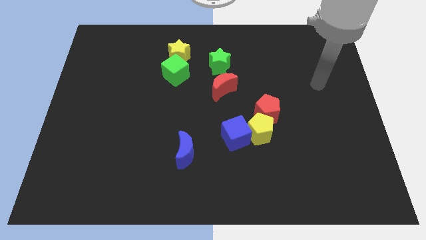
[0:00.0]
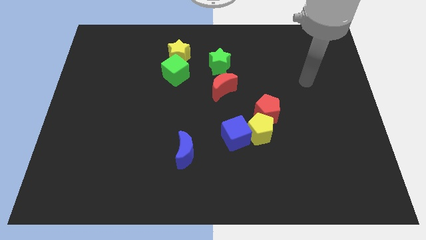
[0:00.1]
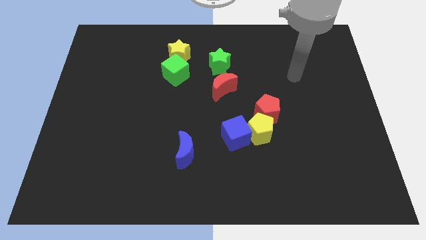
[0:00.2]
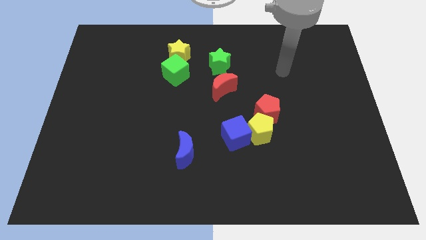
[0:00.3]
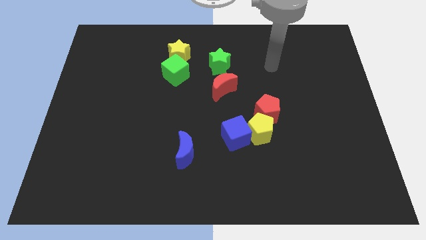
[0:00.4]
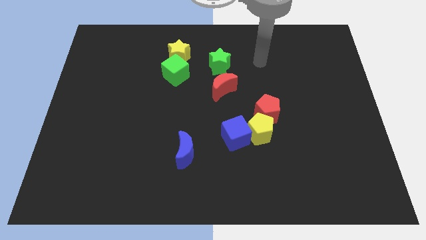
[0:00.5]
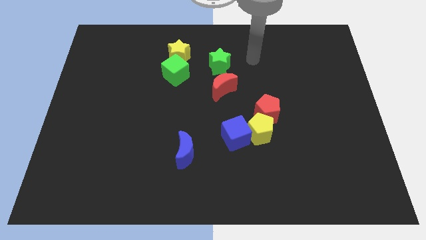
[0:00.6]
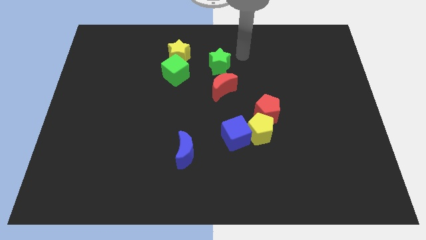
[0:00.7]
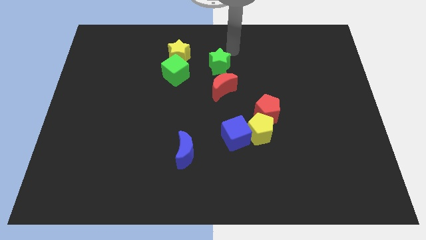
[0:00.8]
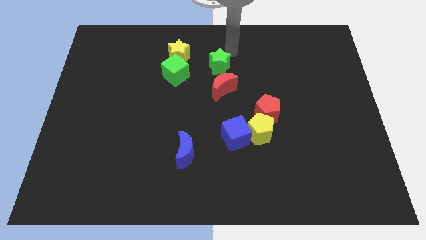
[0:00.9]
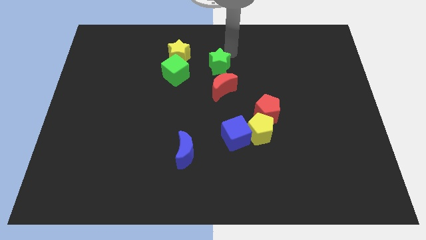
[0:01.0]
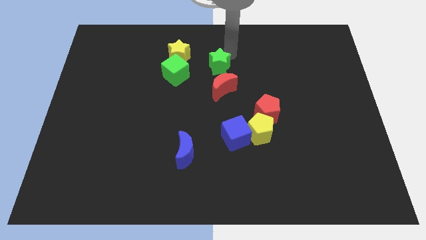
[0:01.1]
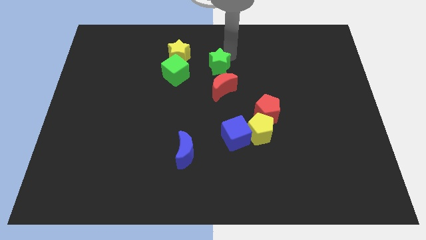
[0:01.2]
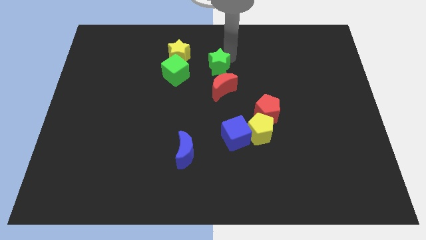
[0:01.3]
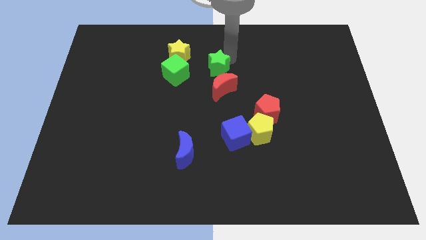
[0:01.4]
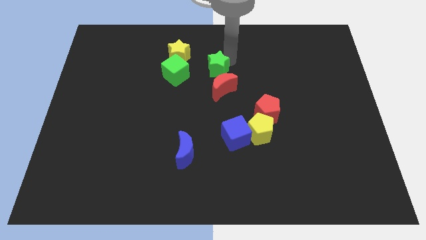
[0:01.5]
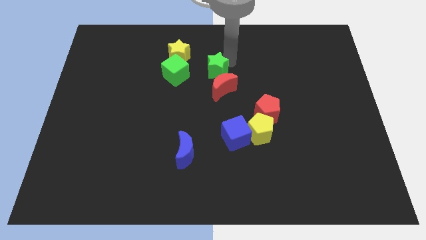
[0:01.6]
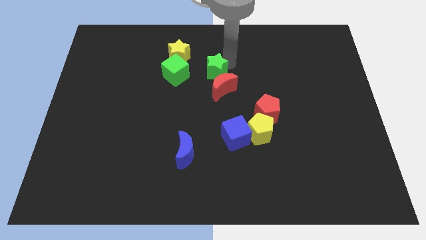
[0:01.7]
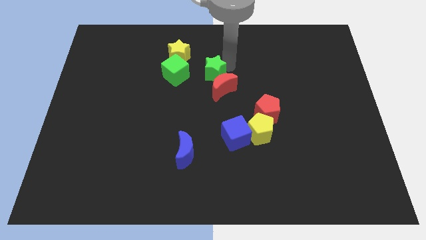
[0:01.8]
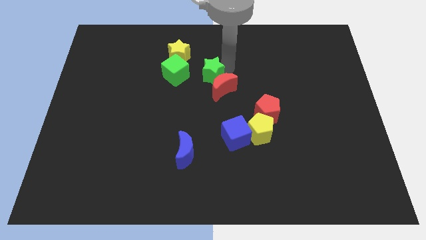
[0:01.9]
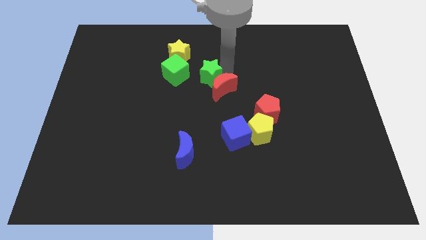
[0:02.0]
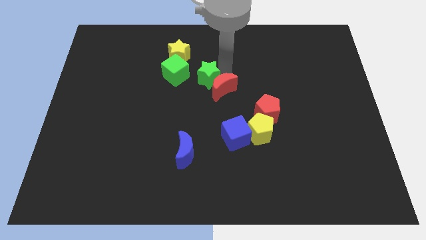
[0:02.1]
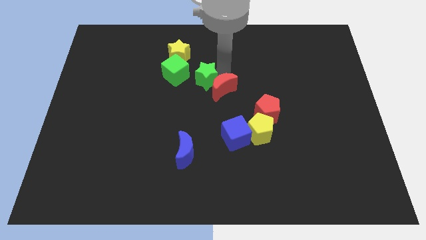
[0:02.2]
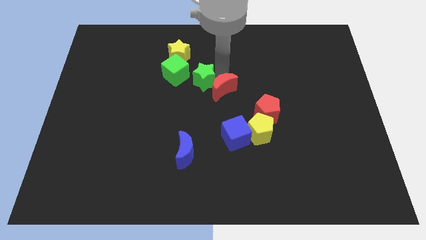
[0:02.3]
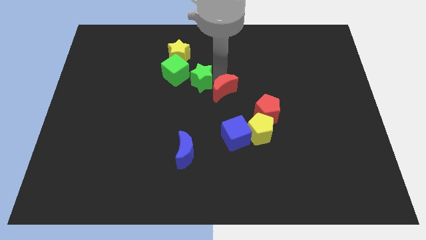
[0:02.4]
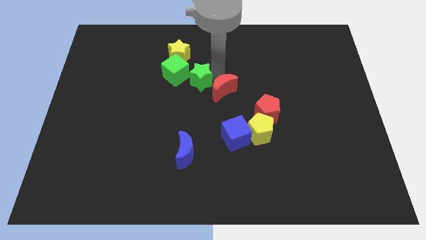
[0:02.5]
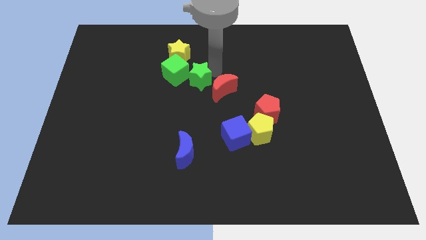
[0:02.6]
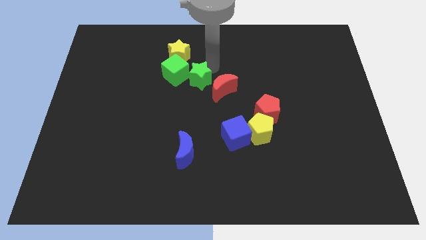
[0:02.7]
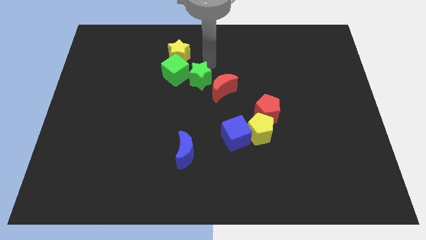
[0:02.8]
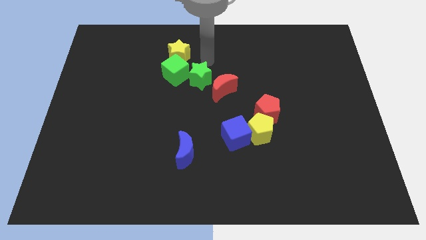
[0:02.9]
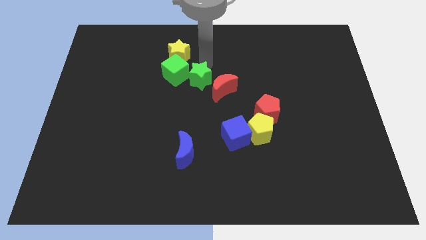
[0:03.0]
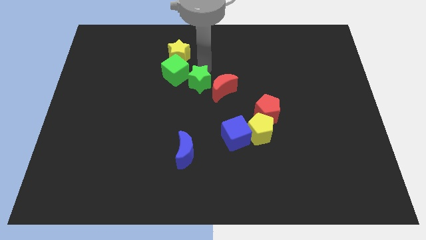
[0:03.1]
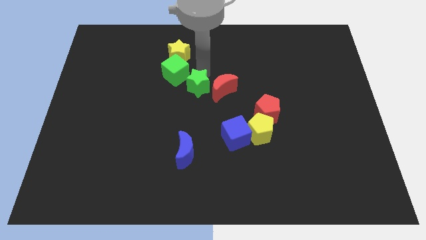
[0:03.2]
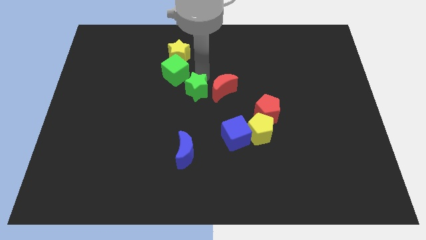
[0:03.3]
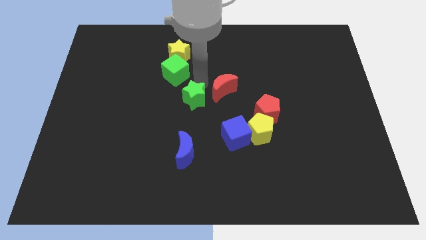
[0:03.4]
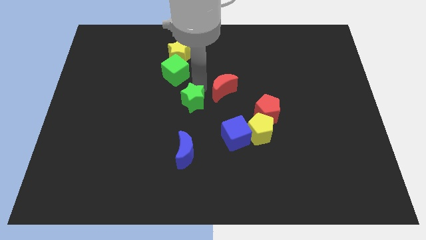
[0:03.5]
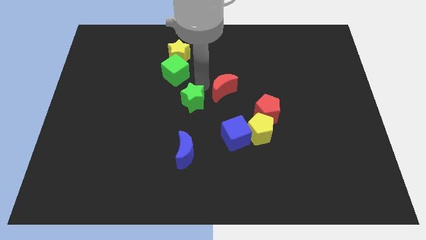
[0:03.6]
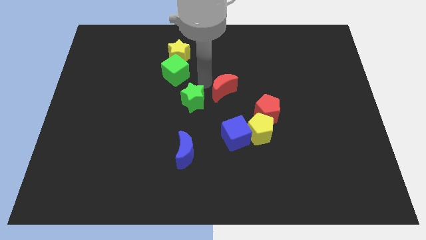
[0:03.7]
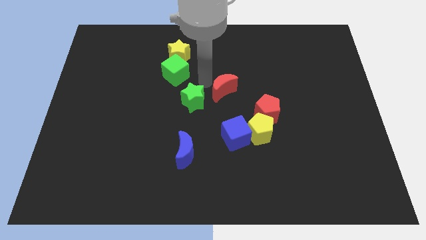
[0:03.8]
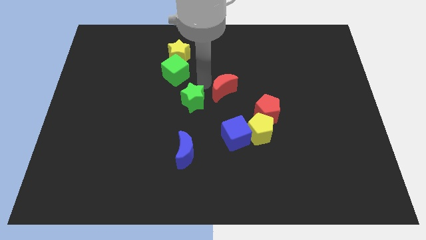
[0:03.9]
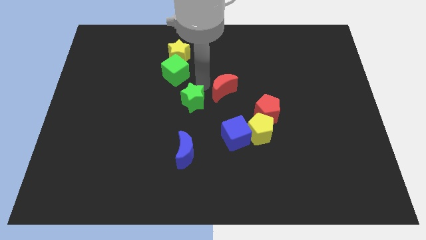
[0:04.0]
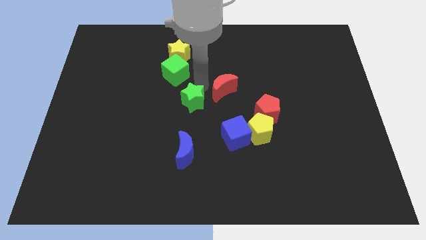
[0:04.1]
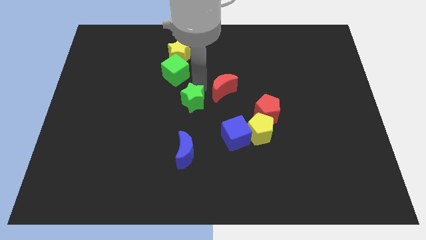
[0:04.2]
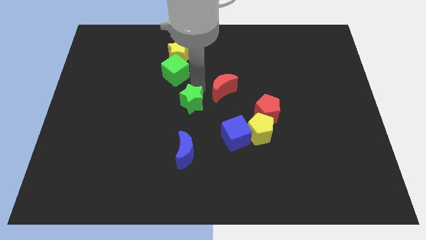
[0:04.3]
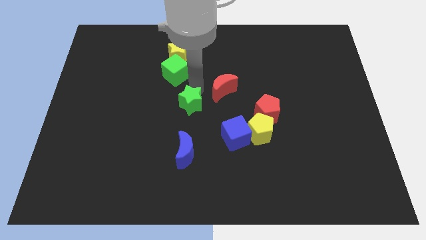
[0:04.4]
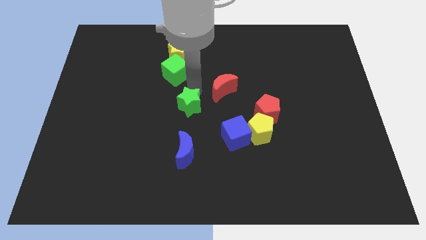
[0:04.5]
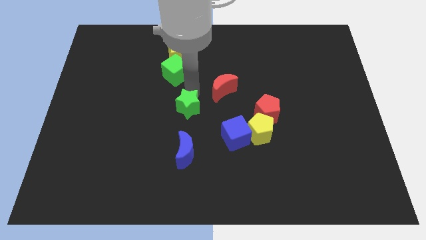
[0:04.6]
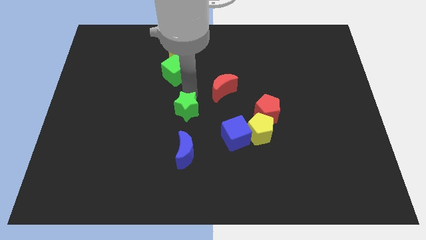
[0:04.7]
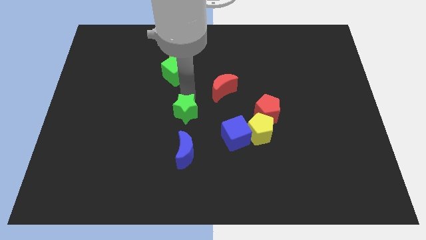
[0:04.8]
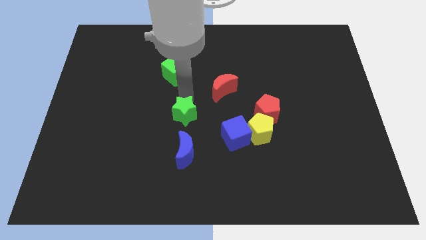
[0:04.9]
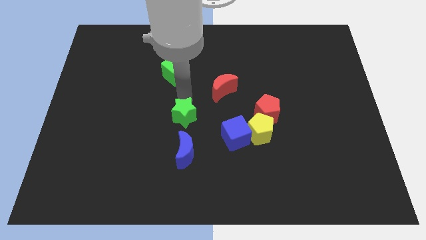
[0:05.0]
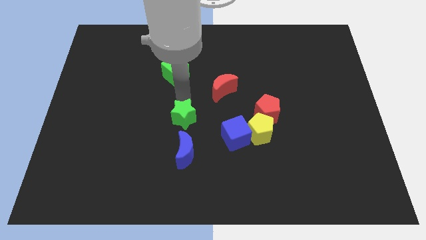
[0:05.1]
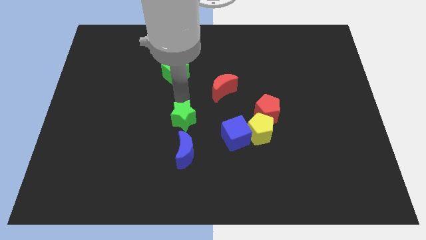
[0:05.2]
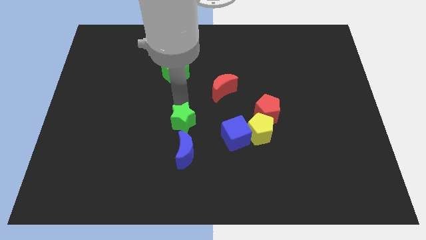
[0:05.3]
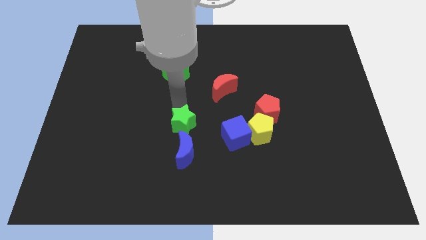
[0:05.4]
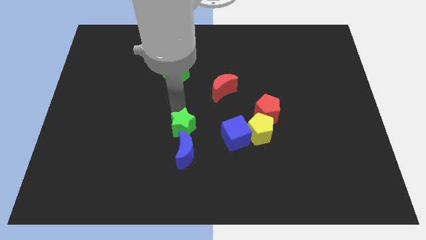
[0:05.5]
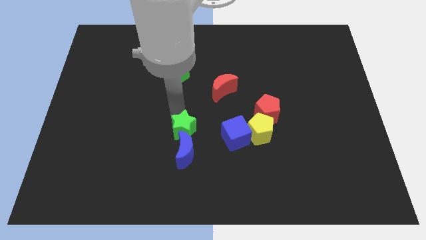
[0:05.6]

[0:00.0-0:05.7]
put the green star close to the blue moon
